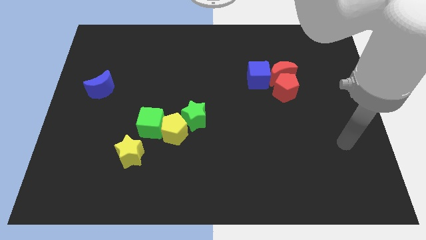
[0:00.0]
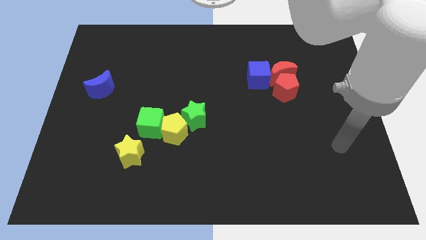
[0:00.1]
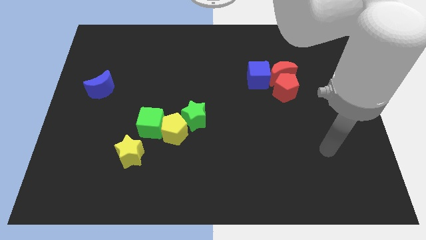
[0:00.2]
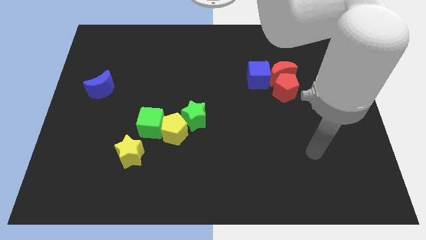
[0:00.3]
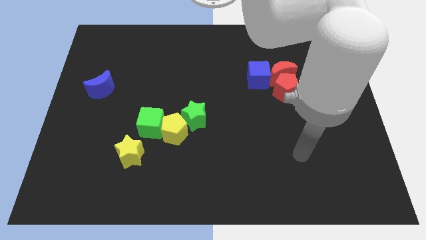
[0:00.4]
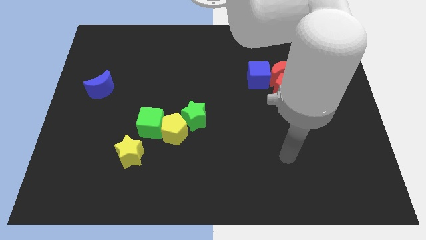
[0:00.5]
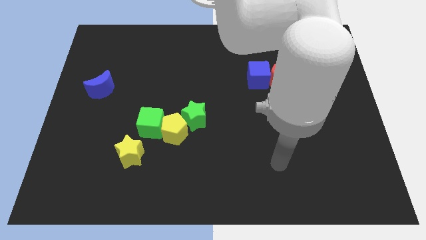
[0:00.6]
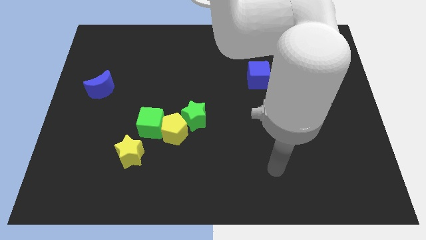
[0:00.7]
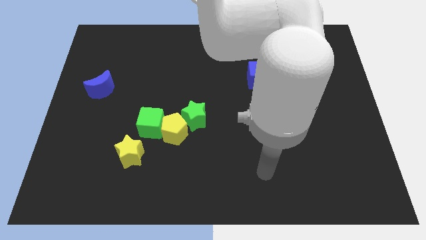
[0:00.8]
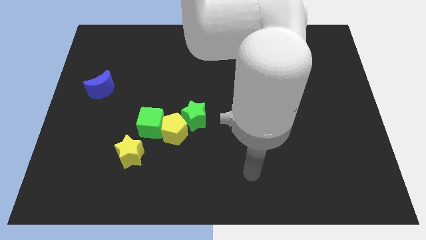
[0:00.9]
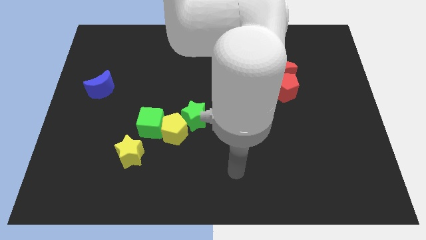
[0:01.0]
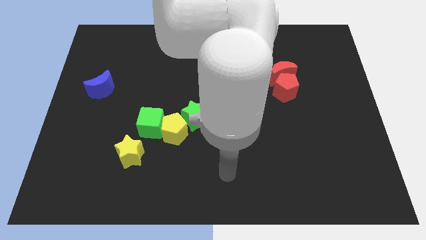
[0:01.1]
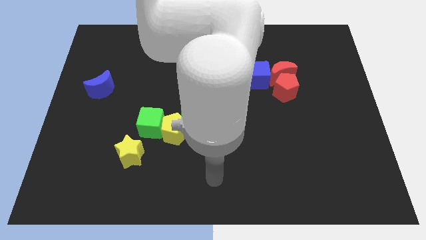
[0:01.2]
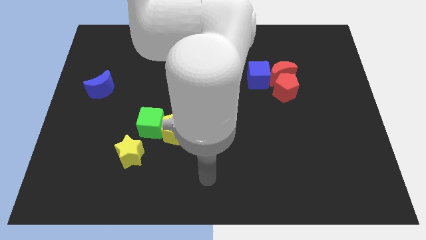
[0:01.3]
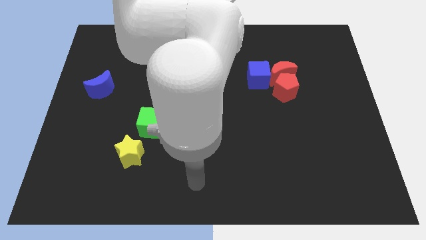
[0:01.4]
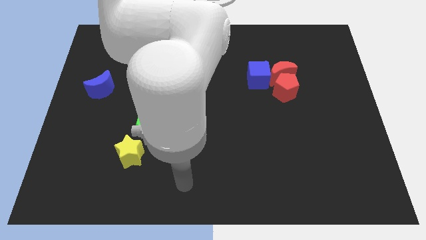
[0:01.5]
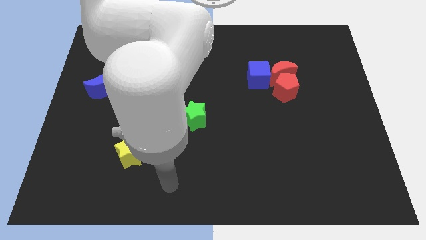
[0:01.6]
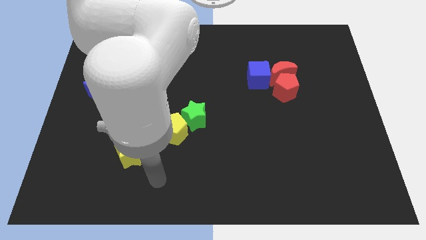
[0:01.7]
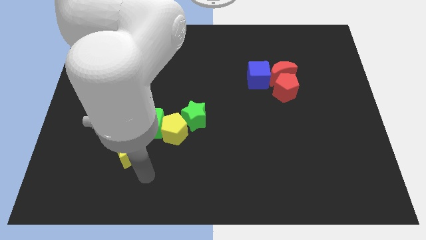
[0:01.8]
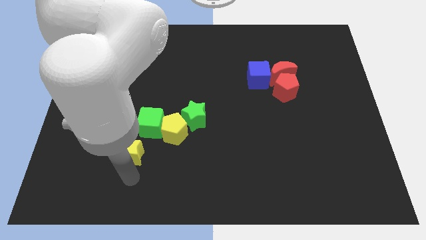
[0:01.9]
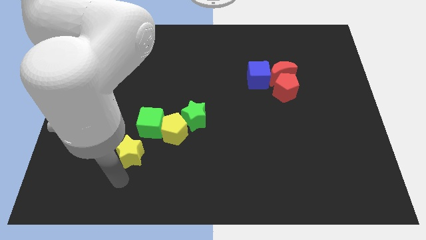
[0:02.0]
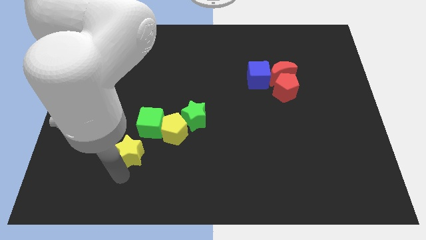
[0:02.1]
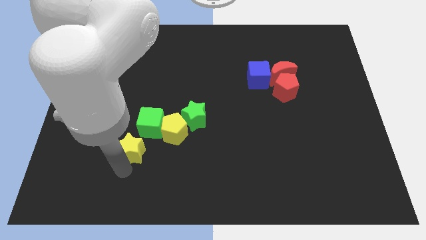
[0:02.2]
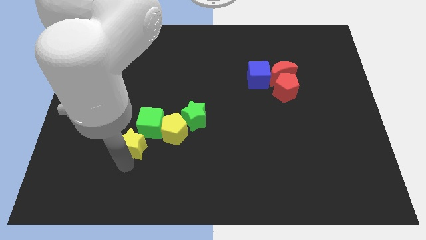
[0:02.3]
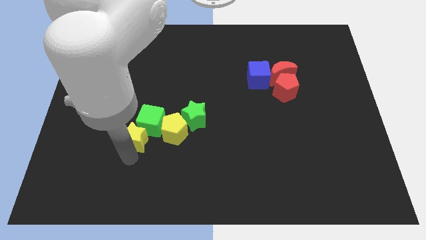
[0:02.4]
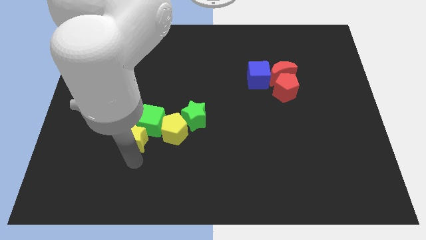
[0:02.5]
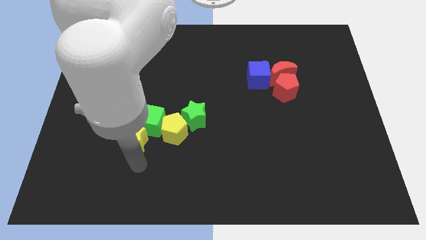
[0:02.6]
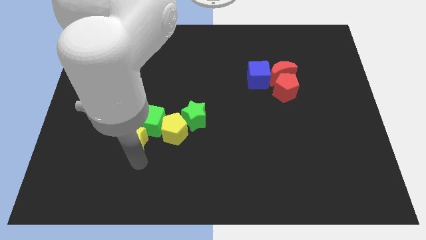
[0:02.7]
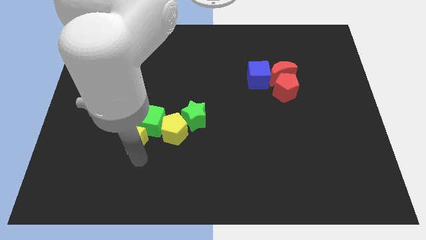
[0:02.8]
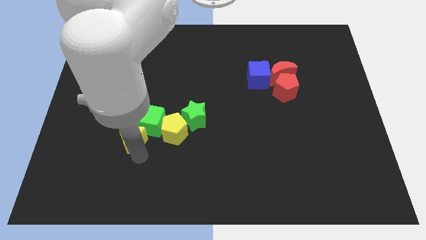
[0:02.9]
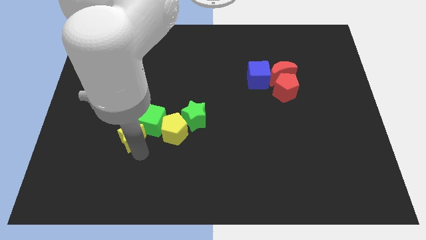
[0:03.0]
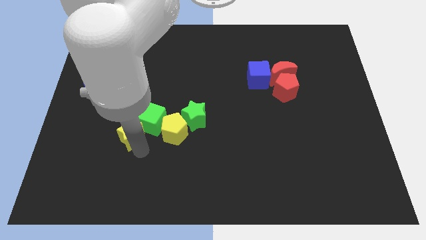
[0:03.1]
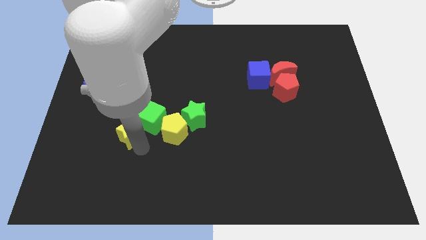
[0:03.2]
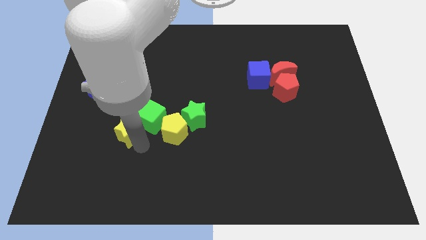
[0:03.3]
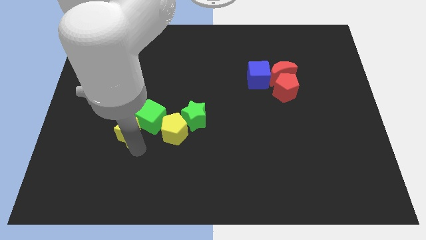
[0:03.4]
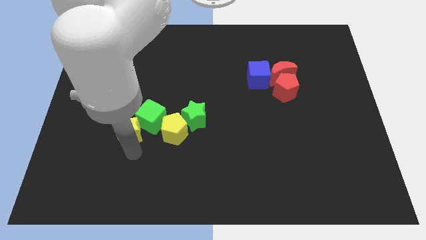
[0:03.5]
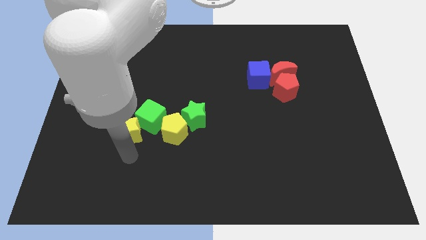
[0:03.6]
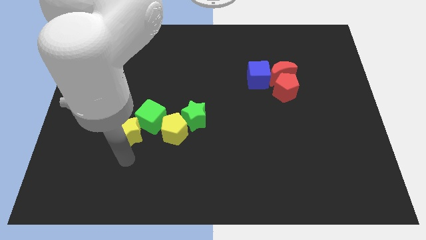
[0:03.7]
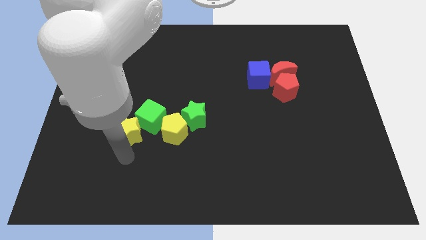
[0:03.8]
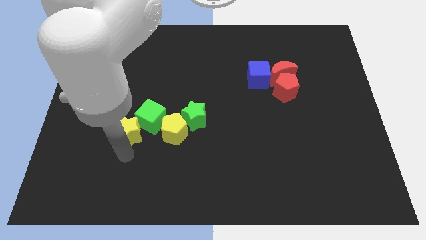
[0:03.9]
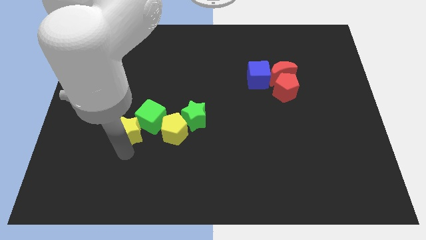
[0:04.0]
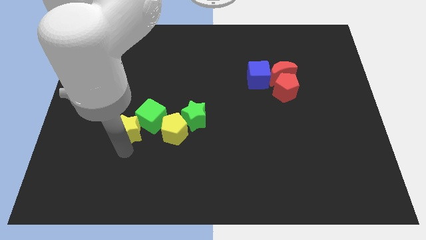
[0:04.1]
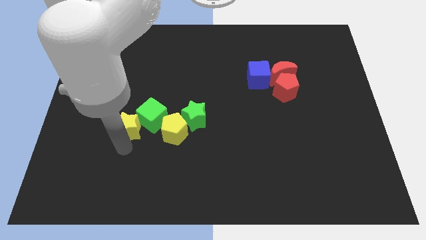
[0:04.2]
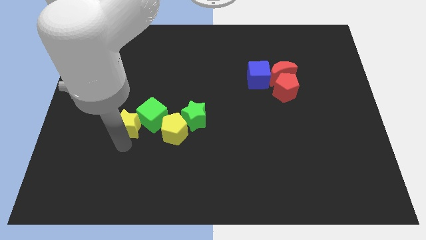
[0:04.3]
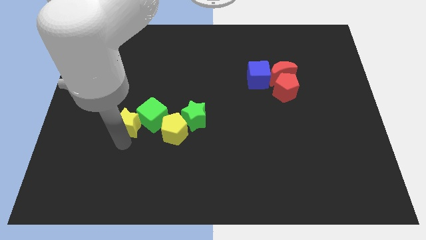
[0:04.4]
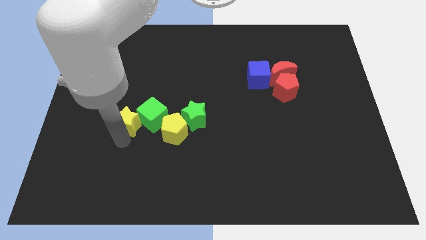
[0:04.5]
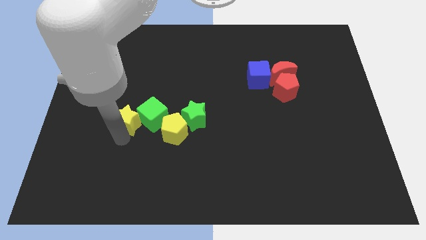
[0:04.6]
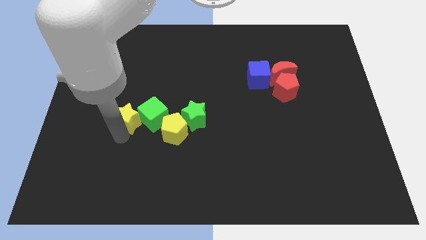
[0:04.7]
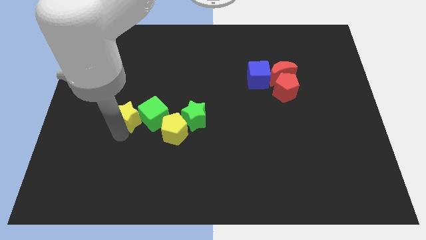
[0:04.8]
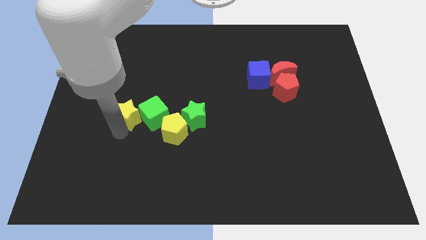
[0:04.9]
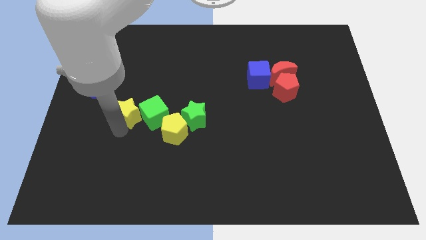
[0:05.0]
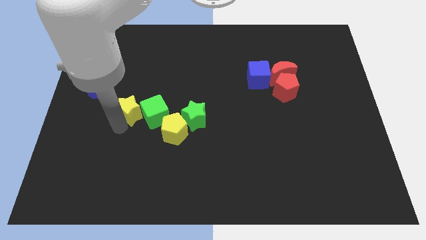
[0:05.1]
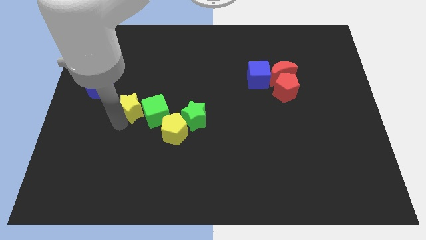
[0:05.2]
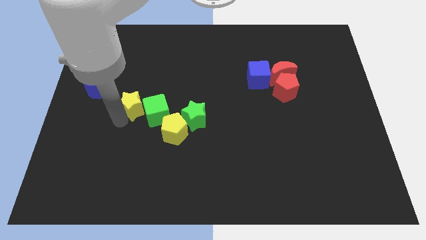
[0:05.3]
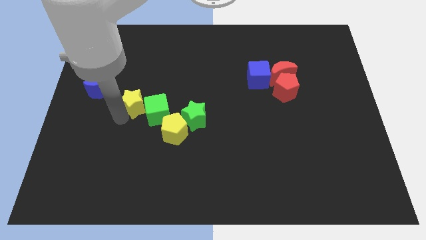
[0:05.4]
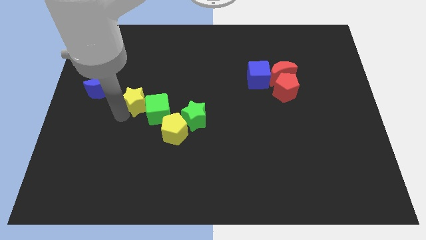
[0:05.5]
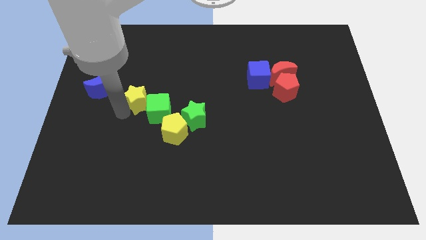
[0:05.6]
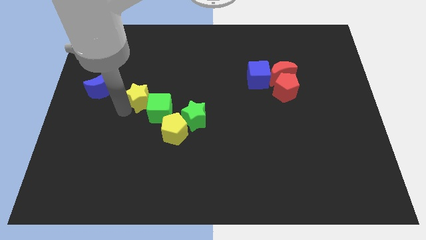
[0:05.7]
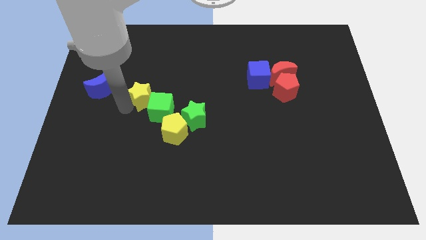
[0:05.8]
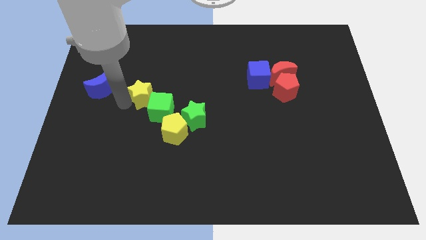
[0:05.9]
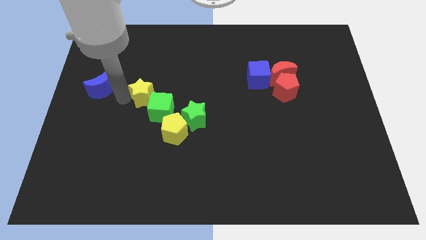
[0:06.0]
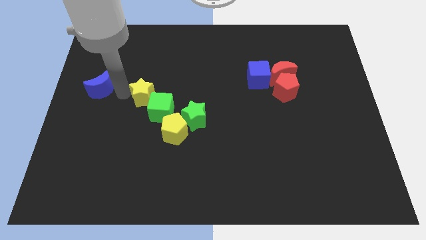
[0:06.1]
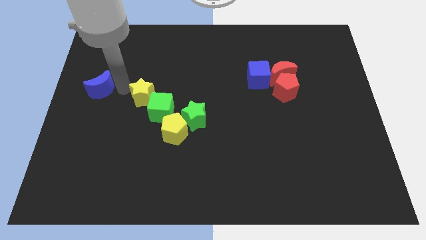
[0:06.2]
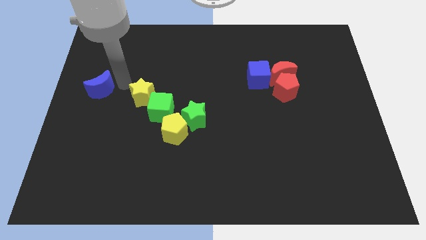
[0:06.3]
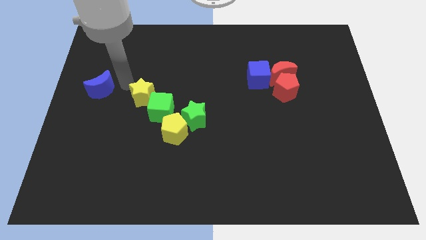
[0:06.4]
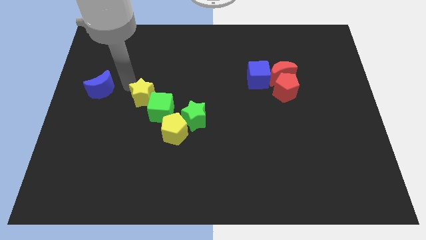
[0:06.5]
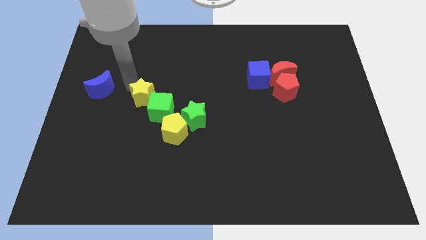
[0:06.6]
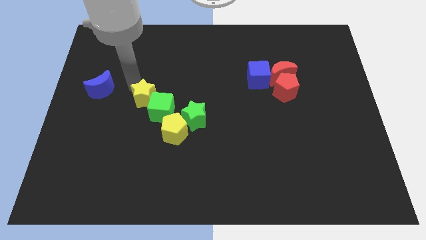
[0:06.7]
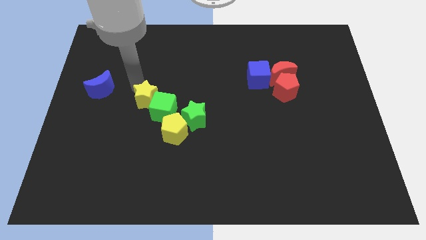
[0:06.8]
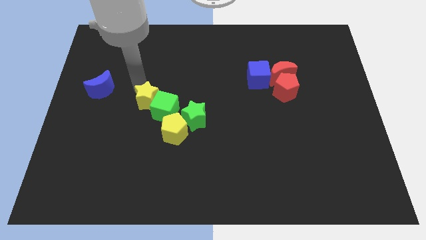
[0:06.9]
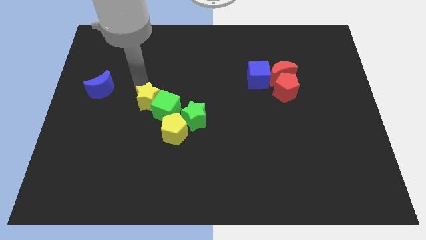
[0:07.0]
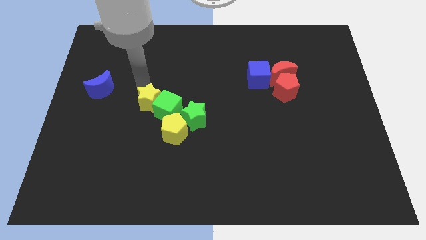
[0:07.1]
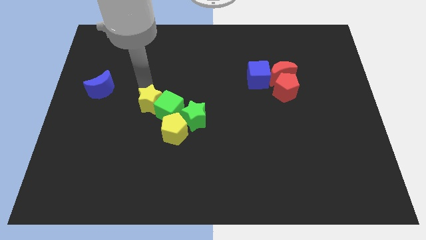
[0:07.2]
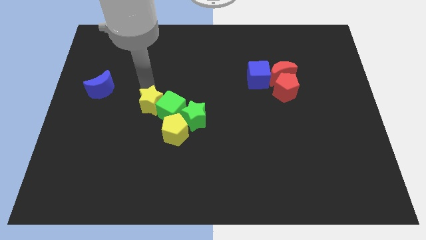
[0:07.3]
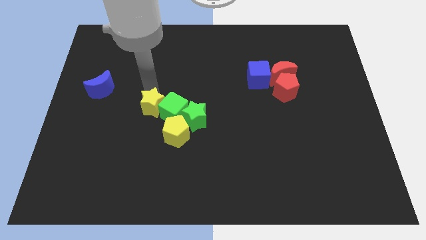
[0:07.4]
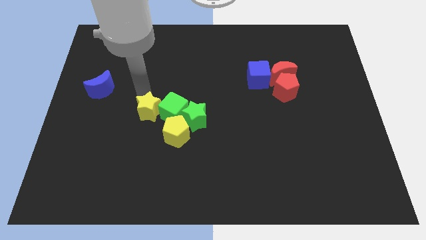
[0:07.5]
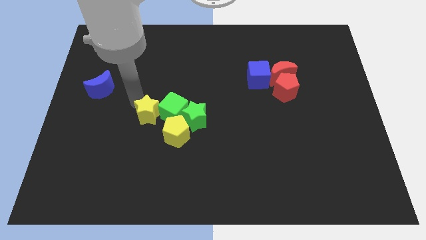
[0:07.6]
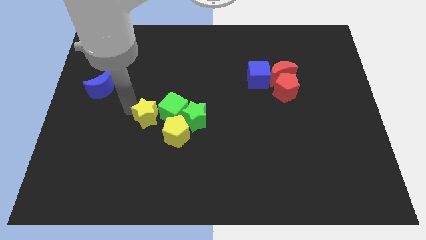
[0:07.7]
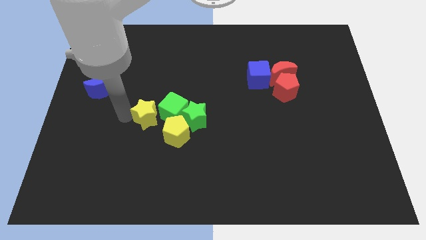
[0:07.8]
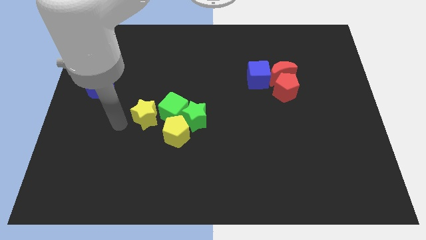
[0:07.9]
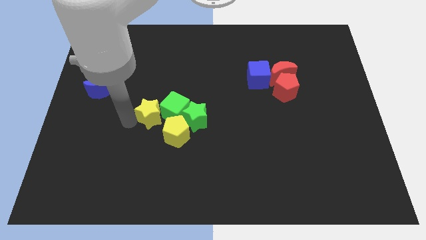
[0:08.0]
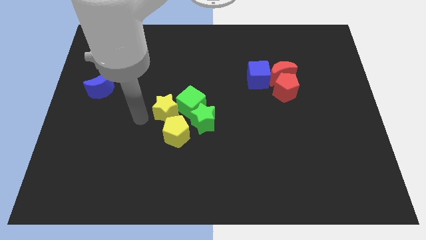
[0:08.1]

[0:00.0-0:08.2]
put the yellow star to the middle
